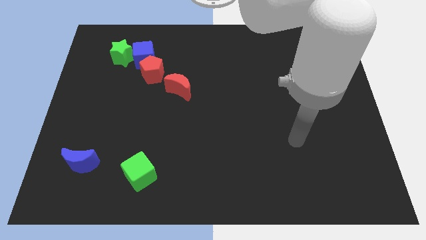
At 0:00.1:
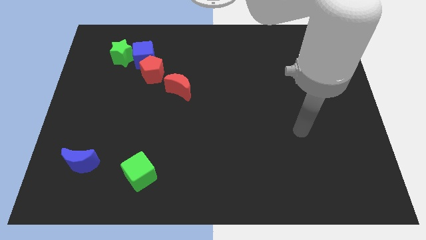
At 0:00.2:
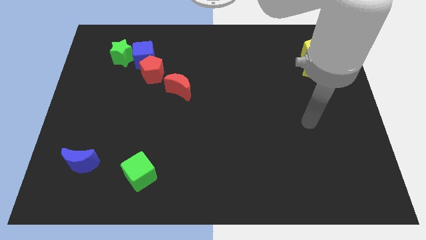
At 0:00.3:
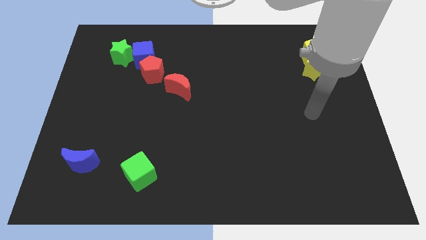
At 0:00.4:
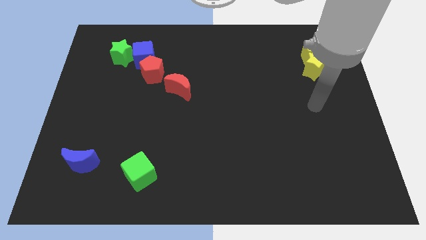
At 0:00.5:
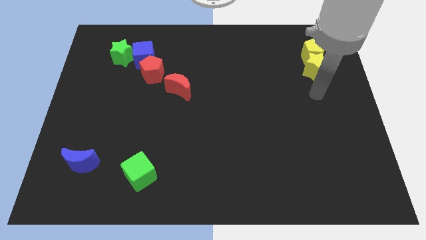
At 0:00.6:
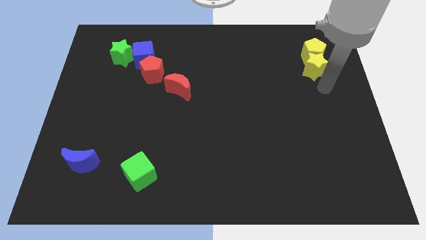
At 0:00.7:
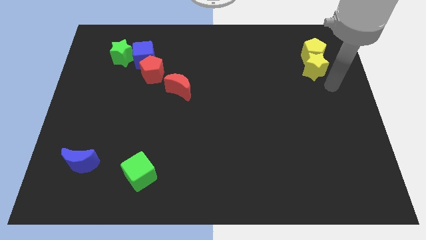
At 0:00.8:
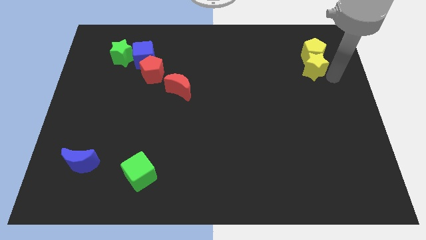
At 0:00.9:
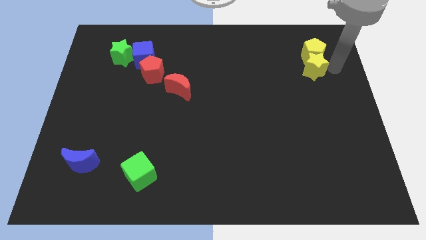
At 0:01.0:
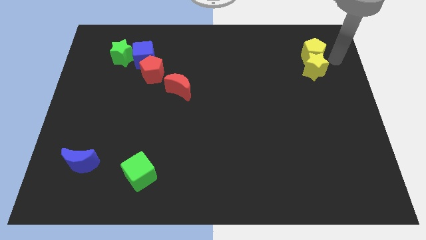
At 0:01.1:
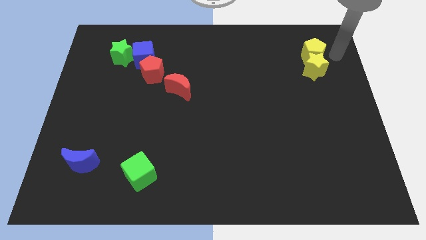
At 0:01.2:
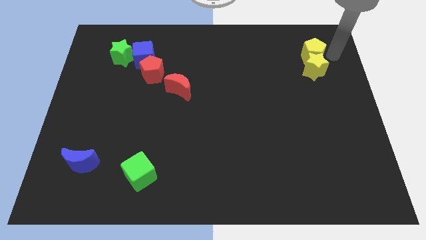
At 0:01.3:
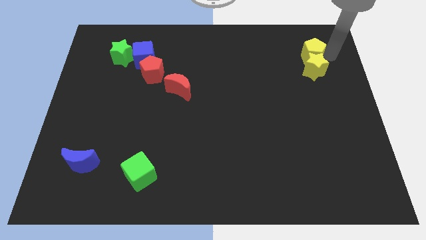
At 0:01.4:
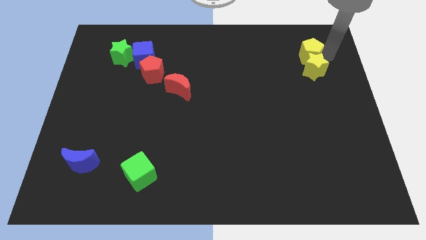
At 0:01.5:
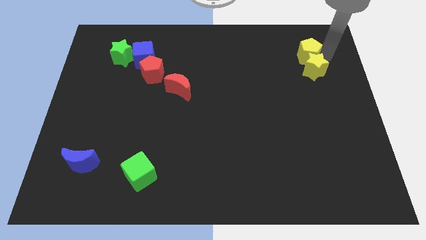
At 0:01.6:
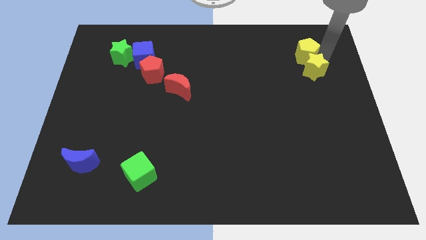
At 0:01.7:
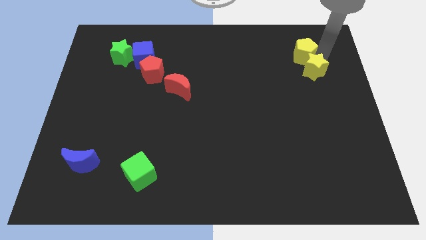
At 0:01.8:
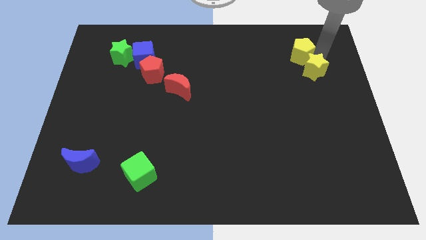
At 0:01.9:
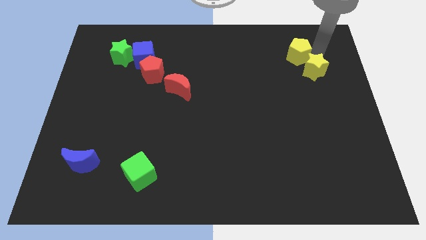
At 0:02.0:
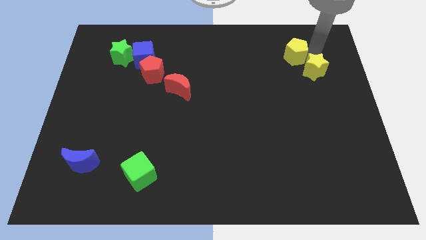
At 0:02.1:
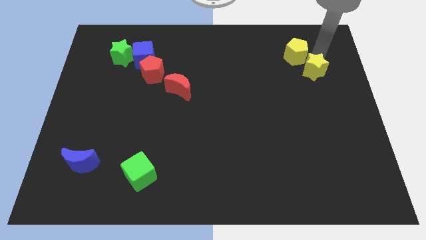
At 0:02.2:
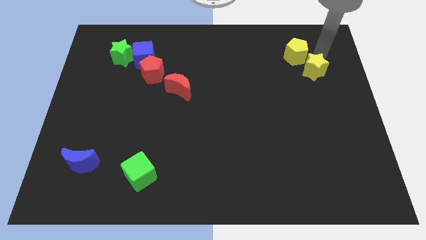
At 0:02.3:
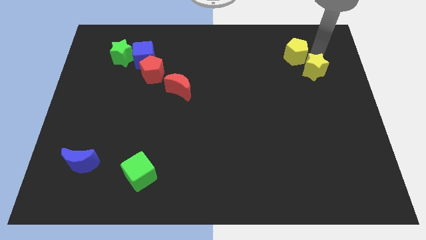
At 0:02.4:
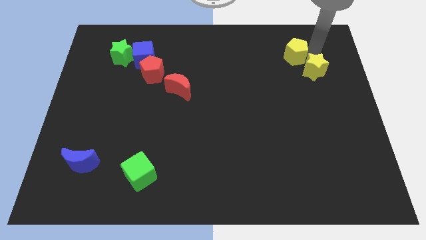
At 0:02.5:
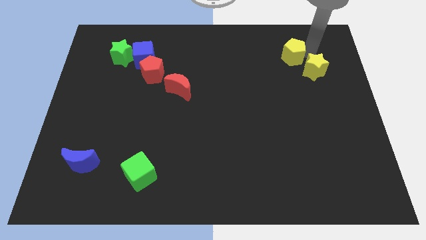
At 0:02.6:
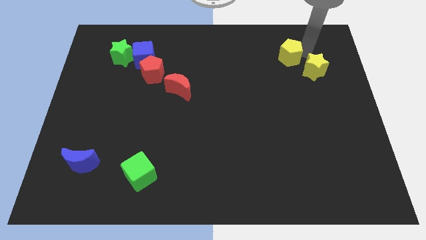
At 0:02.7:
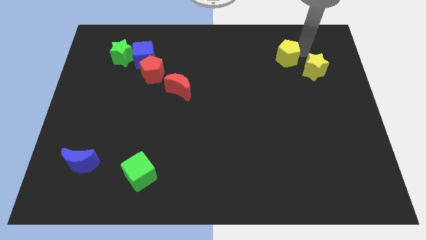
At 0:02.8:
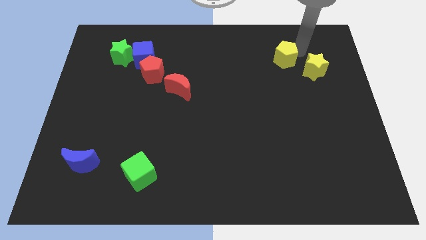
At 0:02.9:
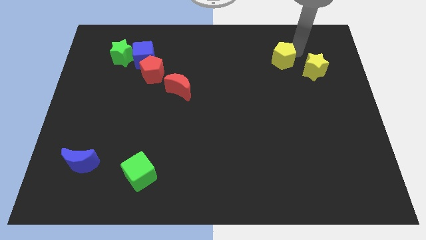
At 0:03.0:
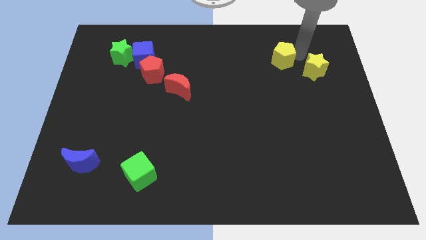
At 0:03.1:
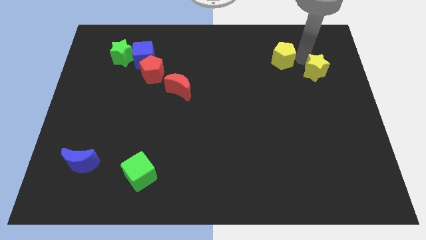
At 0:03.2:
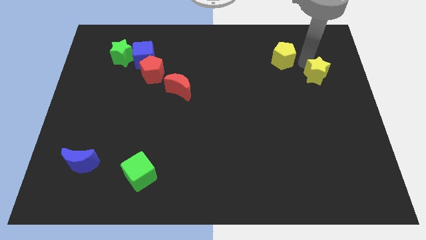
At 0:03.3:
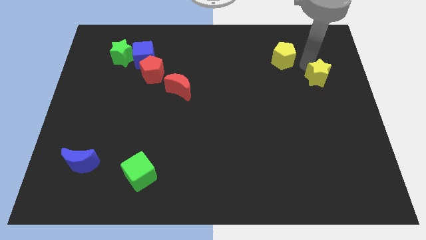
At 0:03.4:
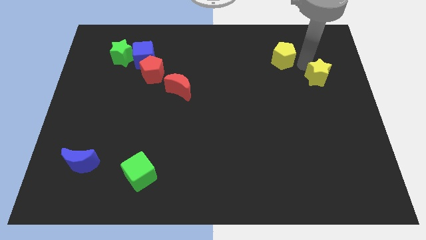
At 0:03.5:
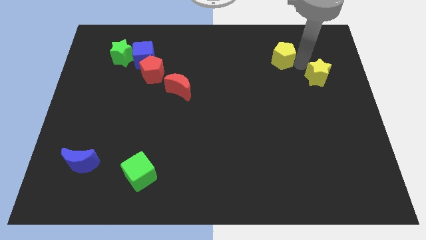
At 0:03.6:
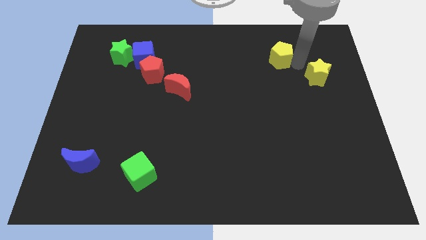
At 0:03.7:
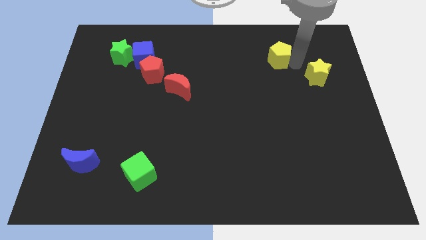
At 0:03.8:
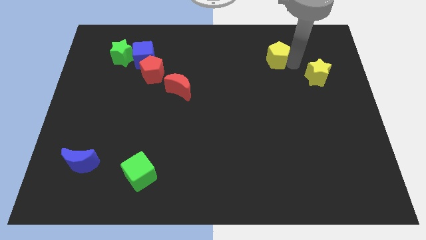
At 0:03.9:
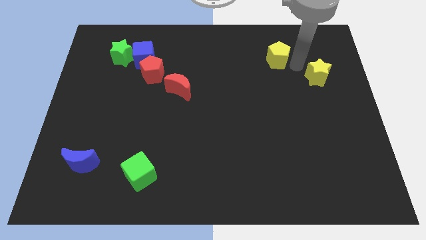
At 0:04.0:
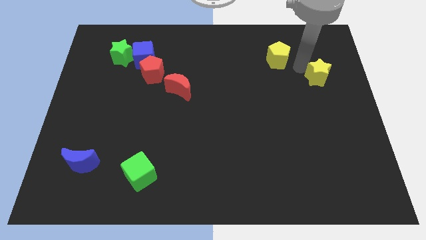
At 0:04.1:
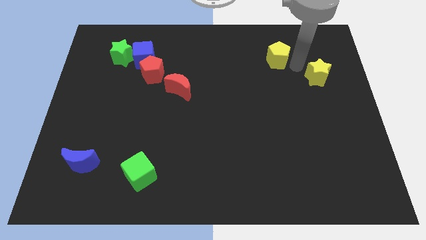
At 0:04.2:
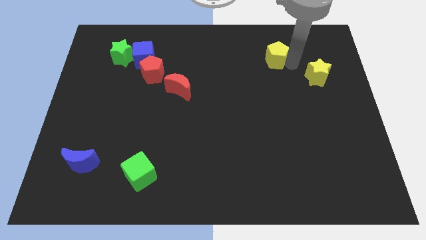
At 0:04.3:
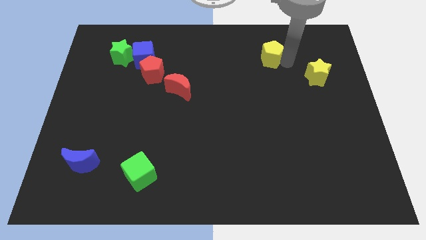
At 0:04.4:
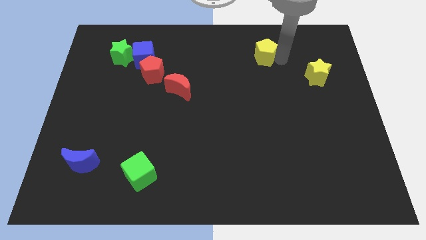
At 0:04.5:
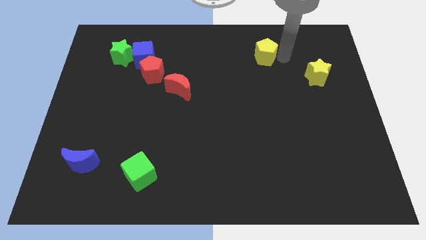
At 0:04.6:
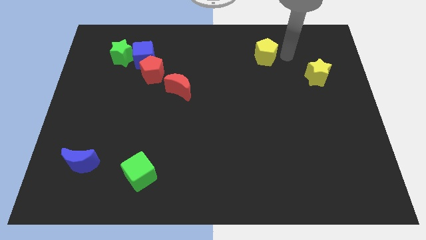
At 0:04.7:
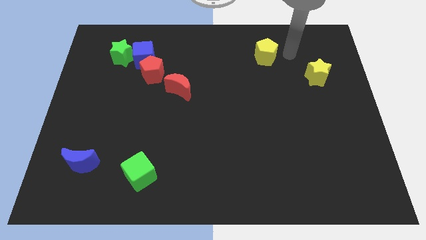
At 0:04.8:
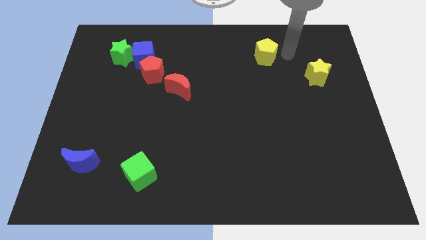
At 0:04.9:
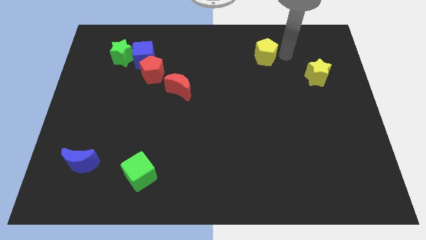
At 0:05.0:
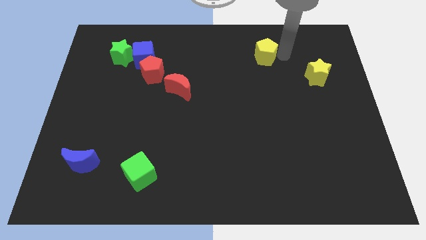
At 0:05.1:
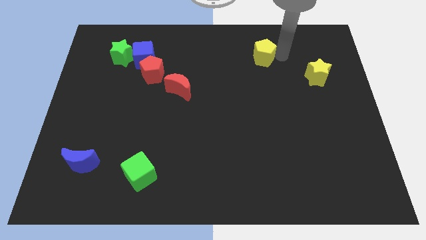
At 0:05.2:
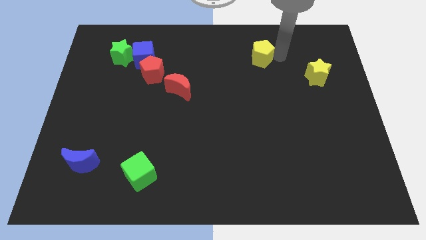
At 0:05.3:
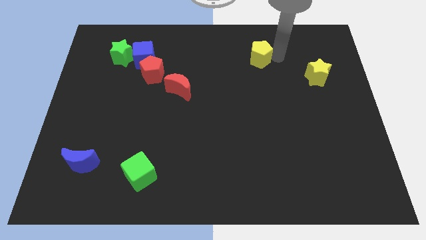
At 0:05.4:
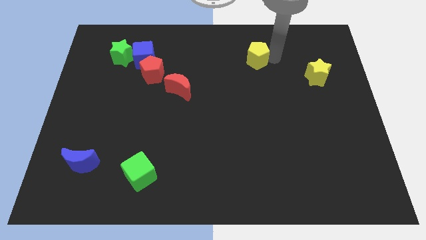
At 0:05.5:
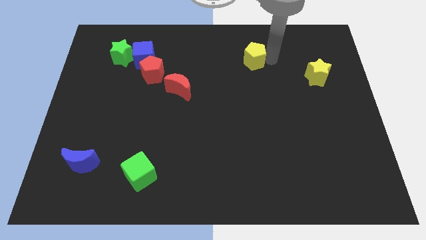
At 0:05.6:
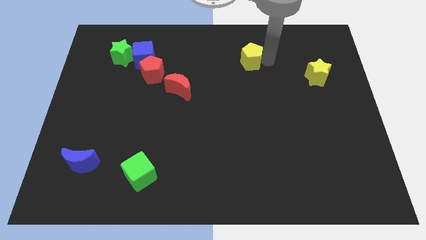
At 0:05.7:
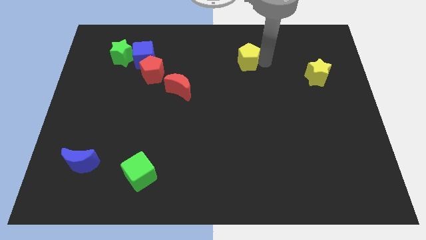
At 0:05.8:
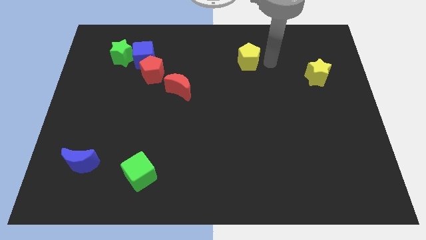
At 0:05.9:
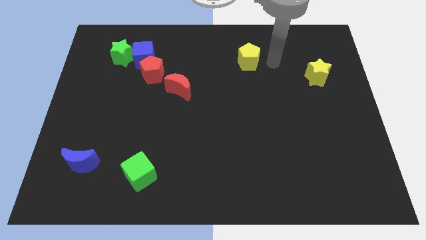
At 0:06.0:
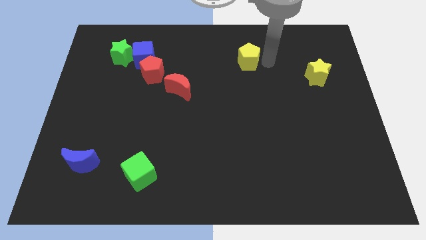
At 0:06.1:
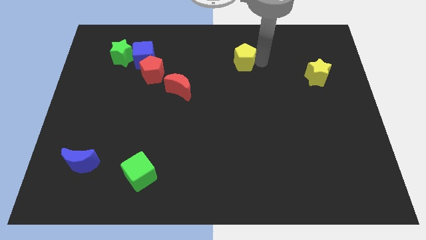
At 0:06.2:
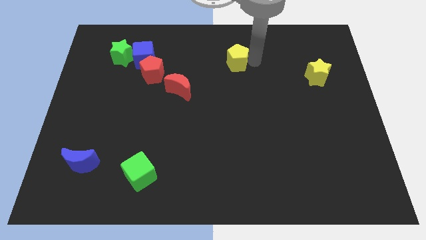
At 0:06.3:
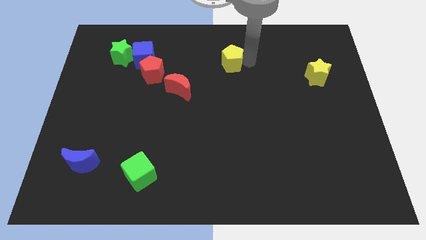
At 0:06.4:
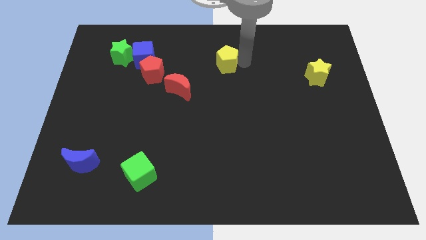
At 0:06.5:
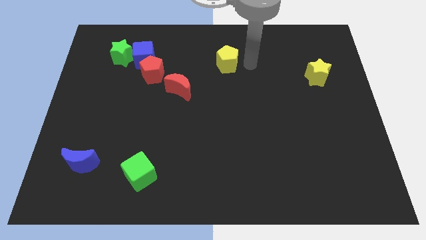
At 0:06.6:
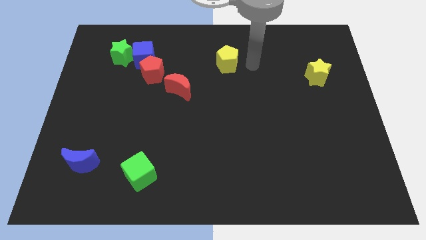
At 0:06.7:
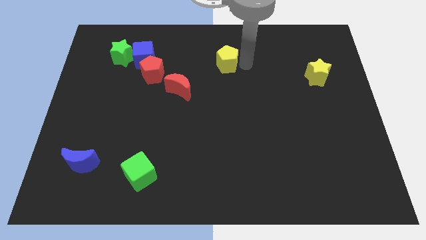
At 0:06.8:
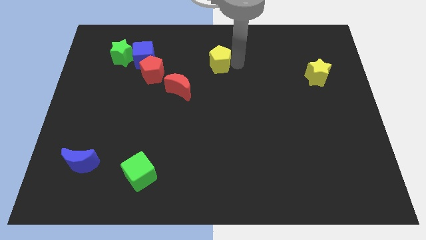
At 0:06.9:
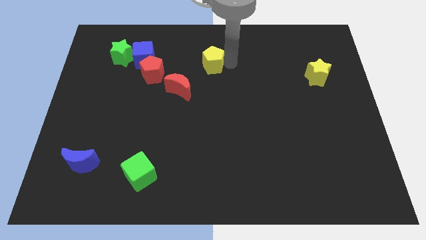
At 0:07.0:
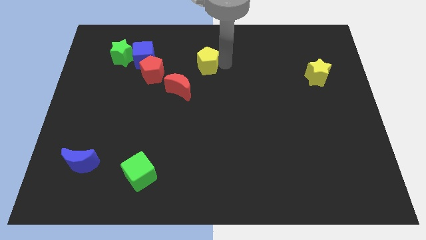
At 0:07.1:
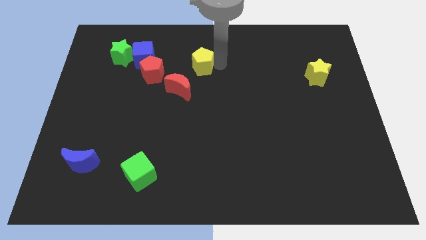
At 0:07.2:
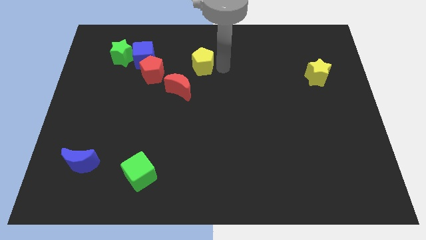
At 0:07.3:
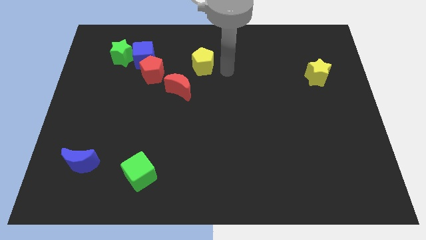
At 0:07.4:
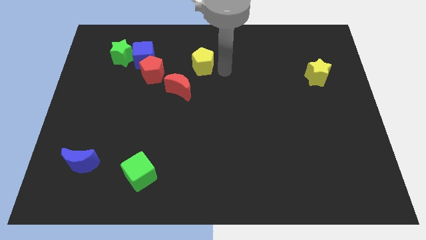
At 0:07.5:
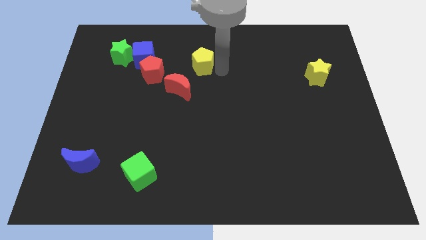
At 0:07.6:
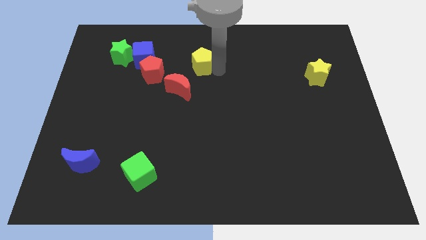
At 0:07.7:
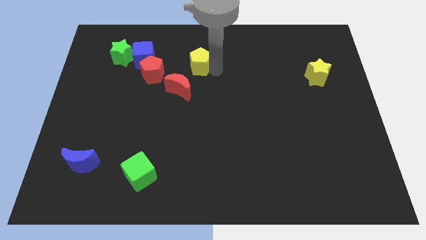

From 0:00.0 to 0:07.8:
put the yellow pentagon to the top side of the red moon
